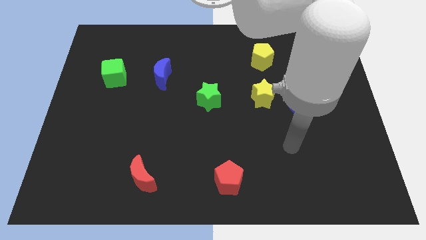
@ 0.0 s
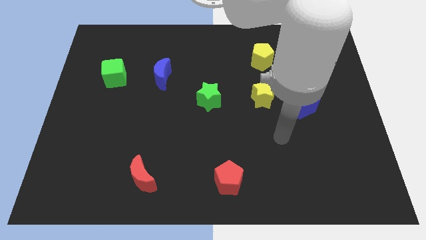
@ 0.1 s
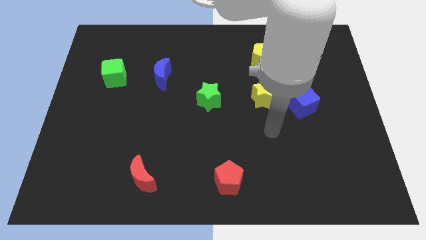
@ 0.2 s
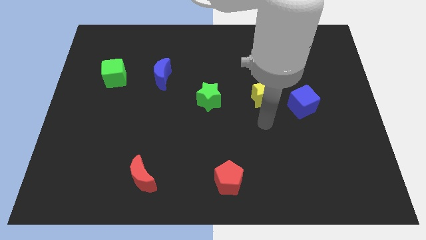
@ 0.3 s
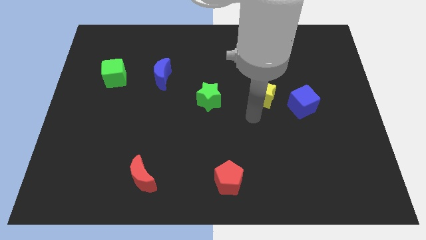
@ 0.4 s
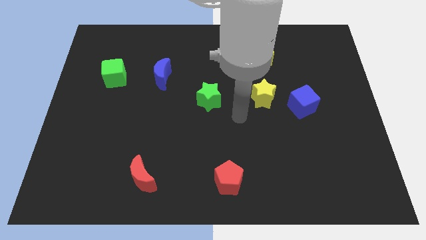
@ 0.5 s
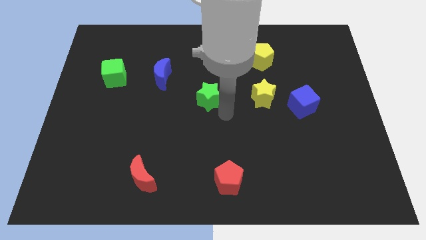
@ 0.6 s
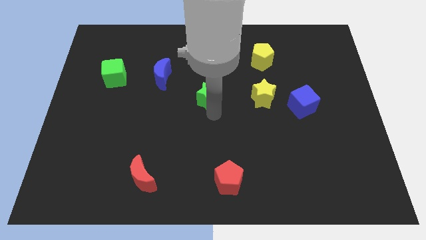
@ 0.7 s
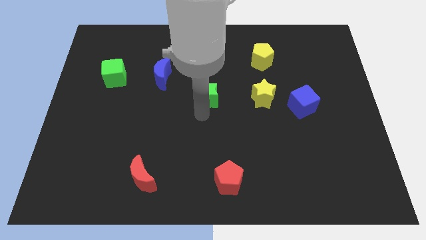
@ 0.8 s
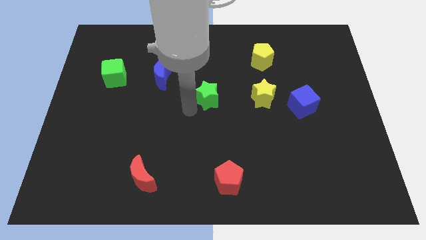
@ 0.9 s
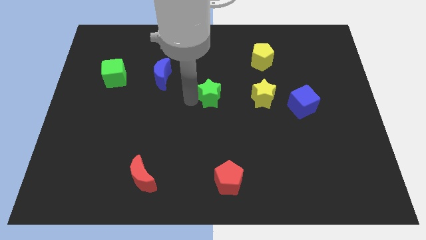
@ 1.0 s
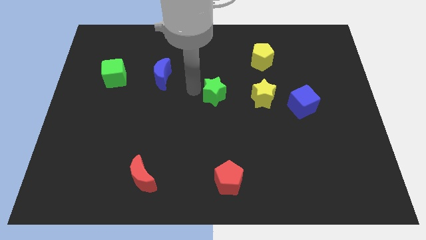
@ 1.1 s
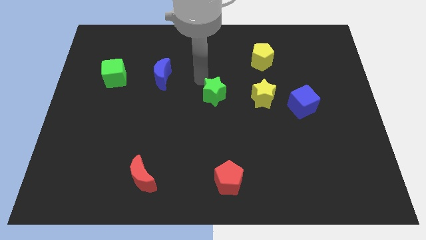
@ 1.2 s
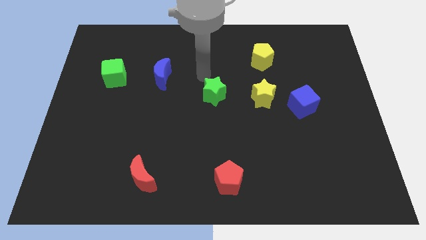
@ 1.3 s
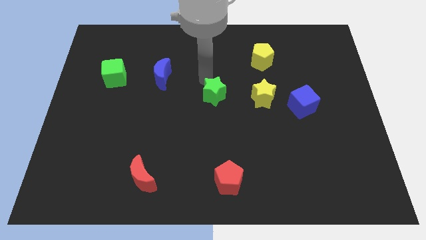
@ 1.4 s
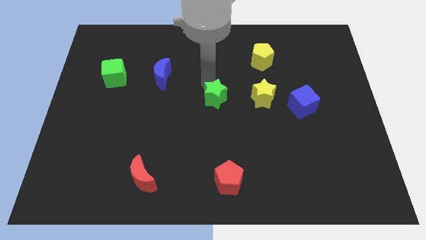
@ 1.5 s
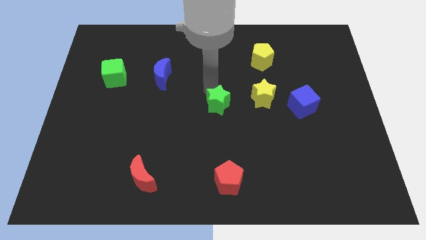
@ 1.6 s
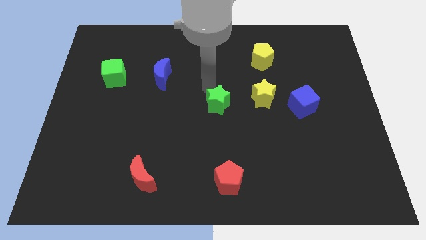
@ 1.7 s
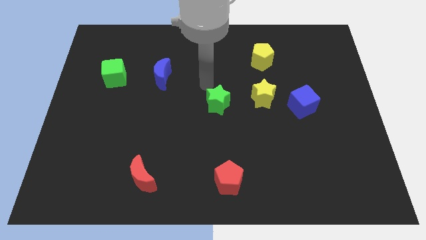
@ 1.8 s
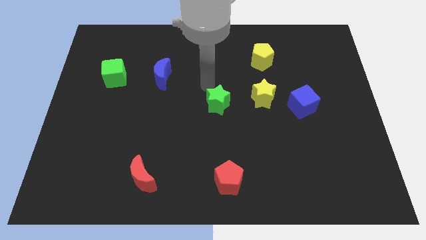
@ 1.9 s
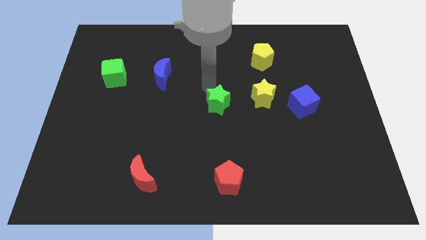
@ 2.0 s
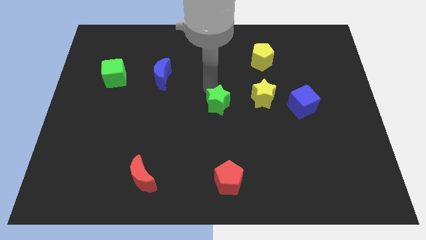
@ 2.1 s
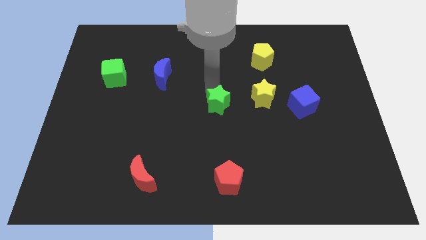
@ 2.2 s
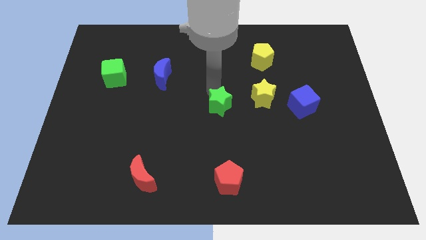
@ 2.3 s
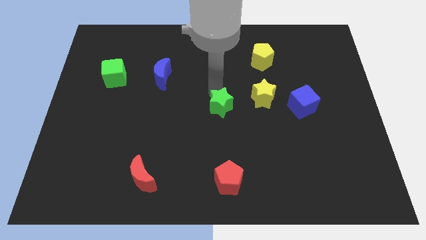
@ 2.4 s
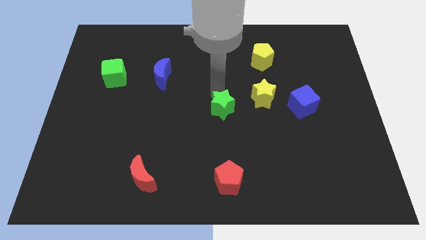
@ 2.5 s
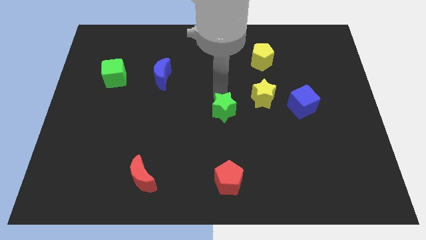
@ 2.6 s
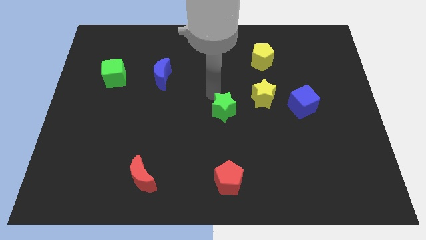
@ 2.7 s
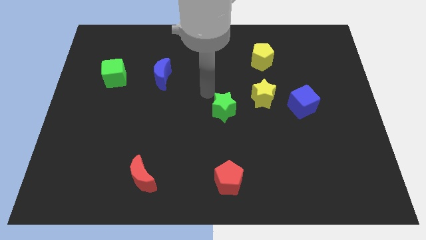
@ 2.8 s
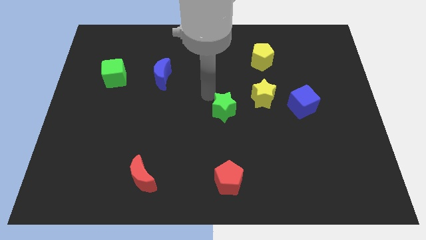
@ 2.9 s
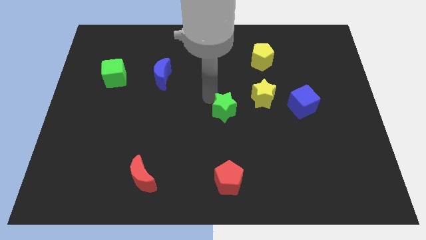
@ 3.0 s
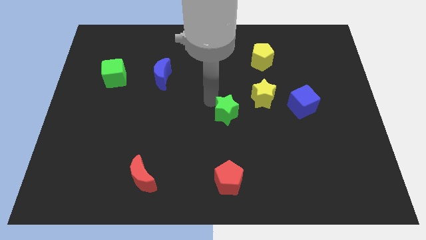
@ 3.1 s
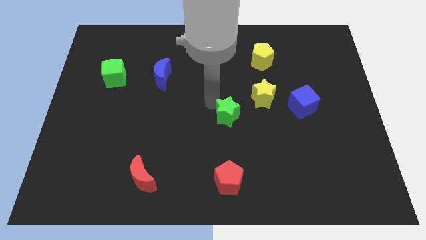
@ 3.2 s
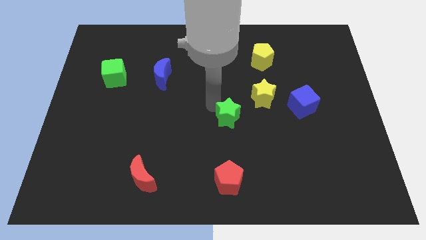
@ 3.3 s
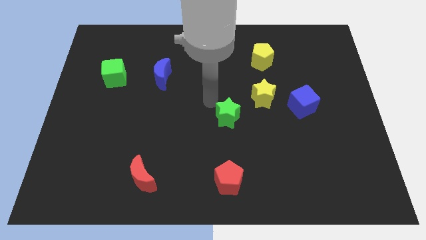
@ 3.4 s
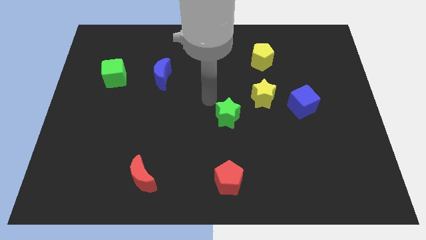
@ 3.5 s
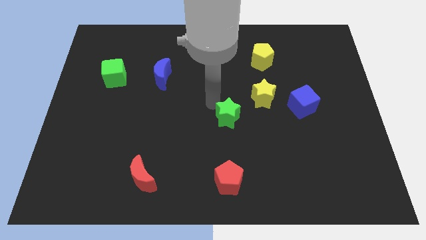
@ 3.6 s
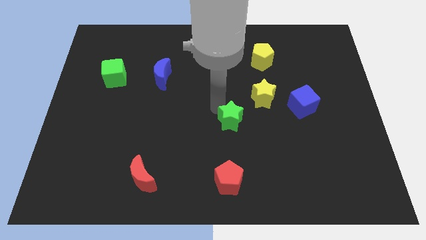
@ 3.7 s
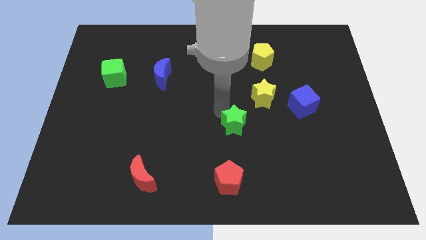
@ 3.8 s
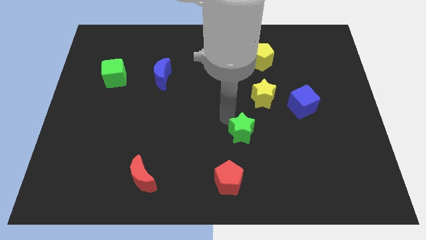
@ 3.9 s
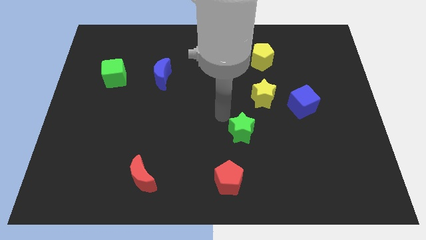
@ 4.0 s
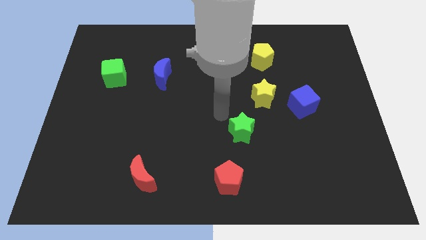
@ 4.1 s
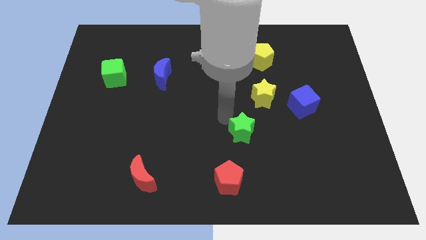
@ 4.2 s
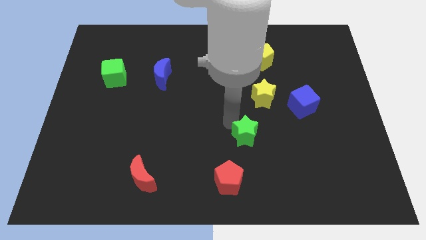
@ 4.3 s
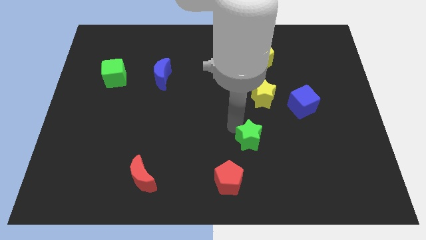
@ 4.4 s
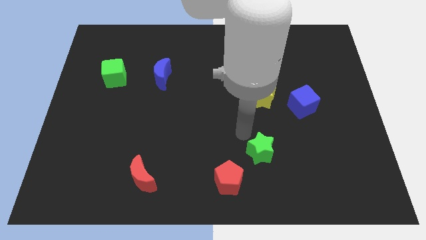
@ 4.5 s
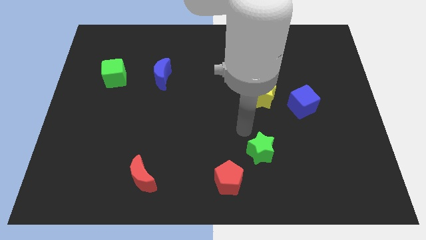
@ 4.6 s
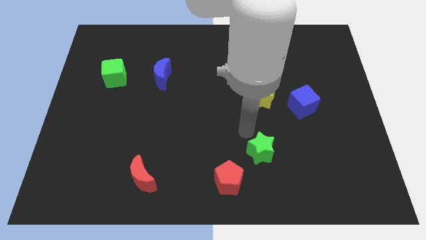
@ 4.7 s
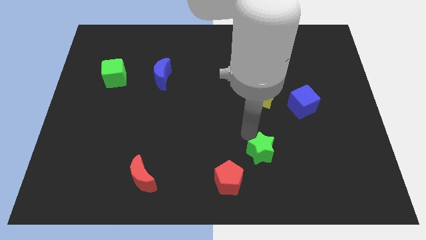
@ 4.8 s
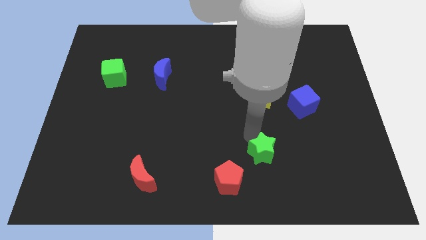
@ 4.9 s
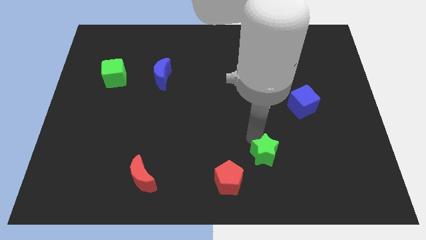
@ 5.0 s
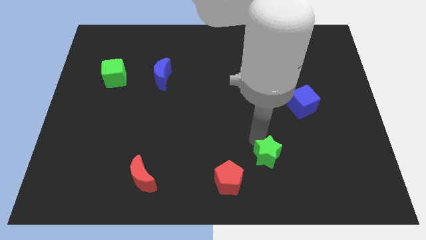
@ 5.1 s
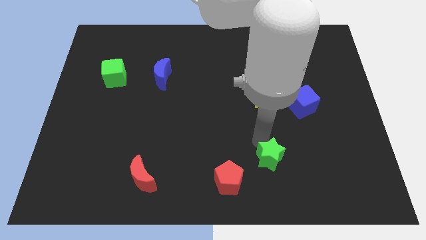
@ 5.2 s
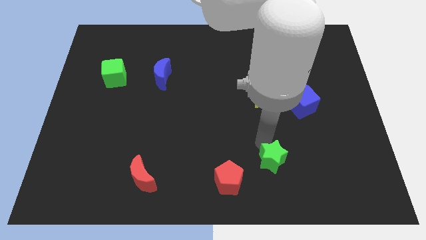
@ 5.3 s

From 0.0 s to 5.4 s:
slide the green star just right of the red pentagon

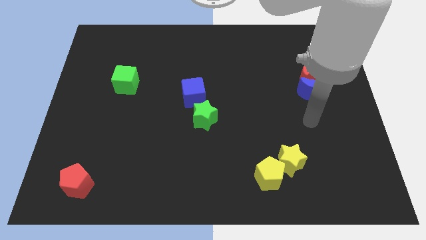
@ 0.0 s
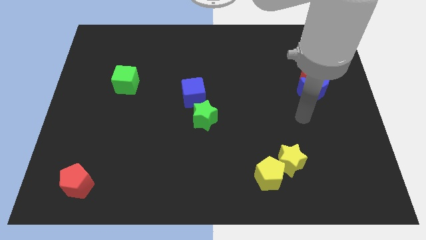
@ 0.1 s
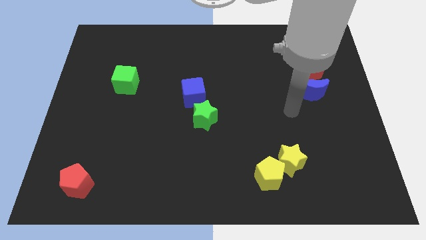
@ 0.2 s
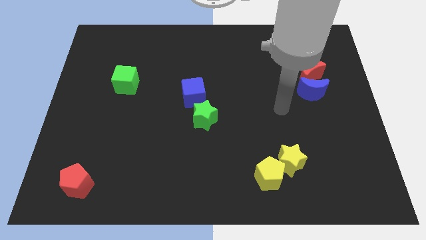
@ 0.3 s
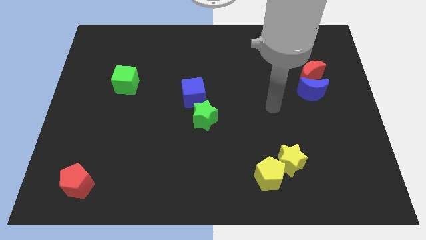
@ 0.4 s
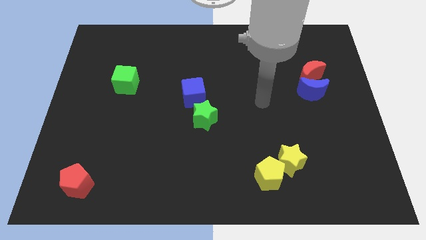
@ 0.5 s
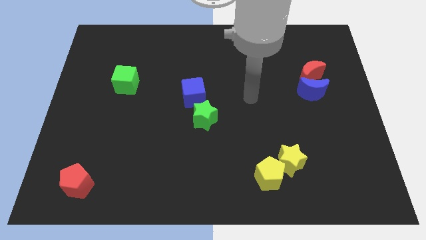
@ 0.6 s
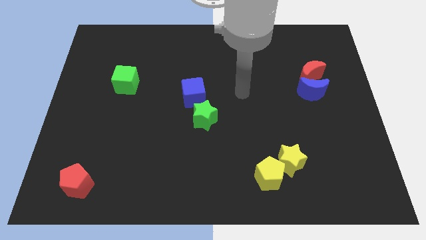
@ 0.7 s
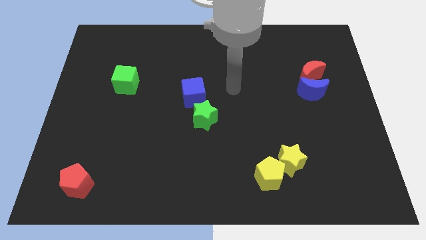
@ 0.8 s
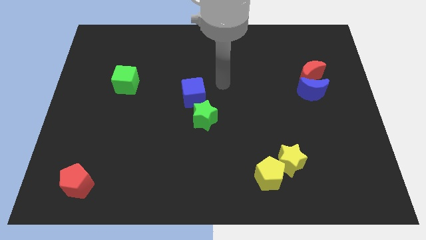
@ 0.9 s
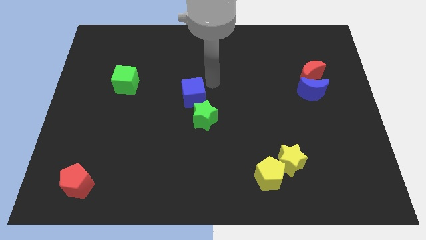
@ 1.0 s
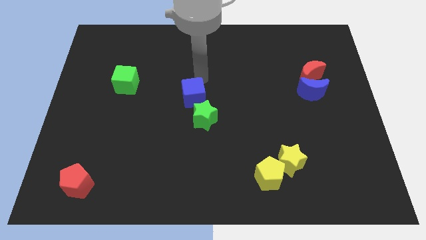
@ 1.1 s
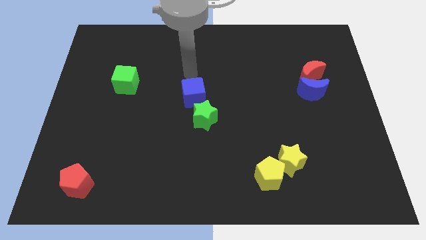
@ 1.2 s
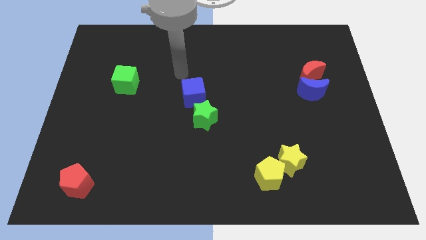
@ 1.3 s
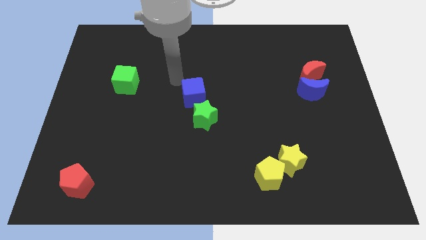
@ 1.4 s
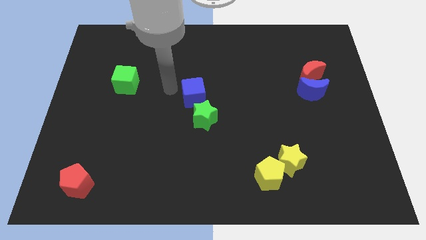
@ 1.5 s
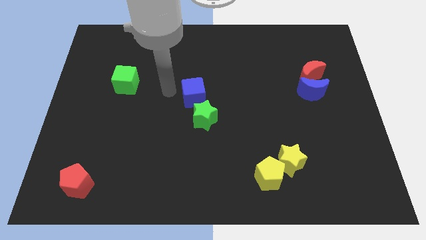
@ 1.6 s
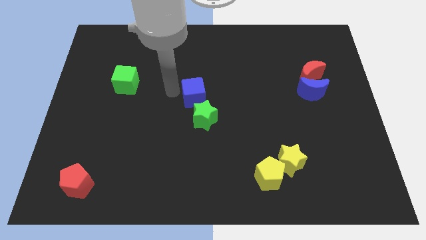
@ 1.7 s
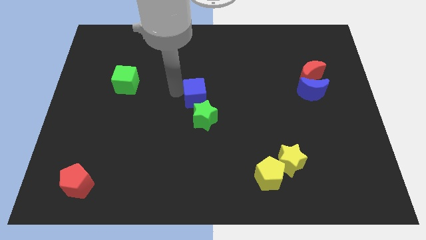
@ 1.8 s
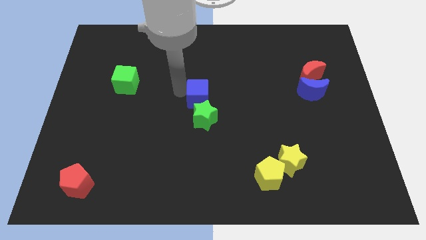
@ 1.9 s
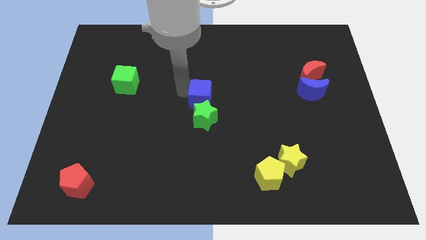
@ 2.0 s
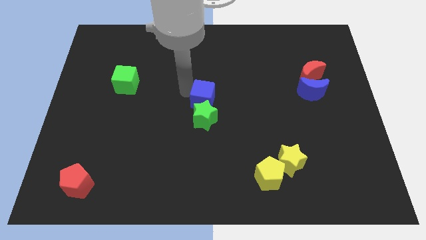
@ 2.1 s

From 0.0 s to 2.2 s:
slide the blue cube to the top right of the green star

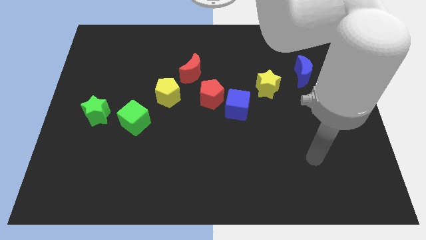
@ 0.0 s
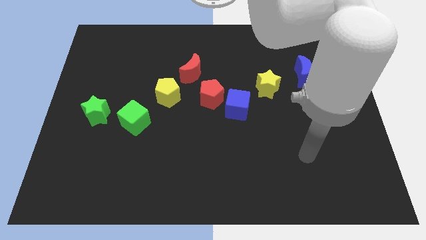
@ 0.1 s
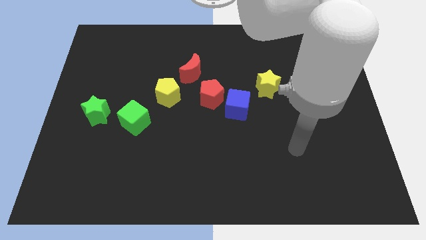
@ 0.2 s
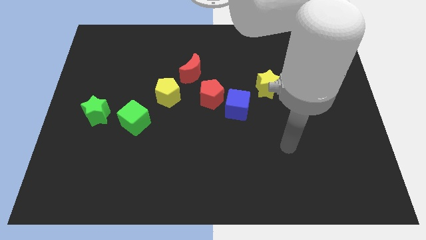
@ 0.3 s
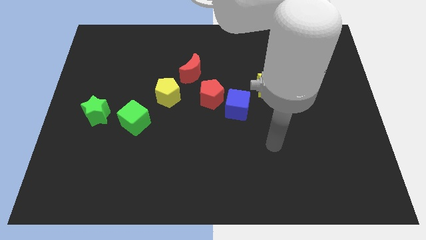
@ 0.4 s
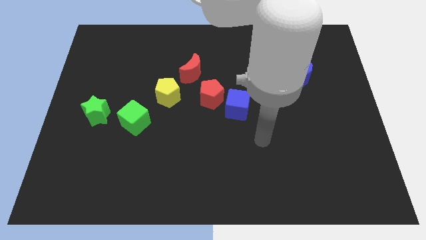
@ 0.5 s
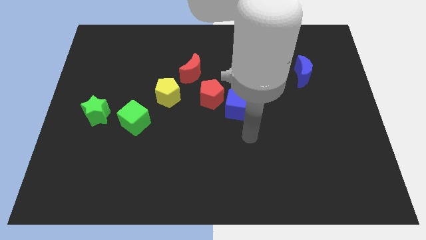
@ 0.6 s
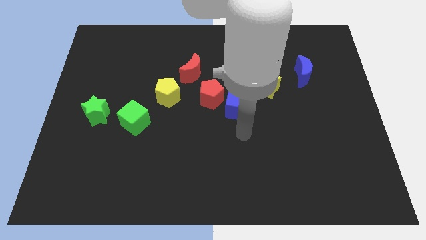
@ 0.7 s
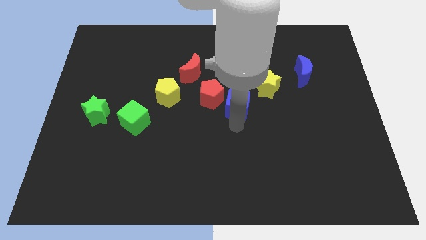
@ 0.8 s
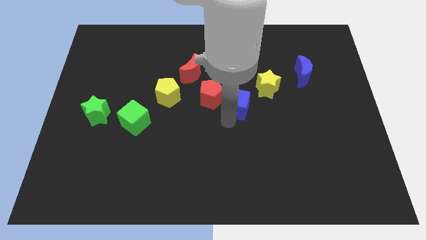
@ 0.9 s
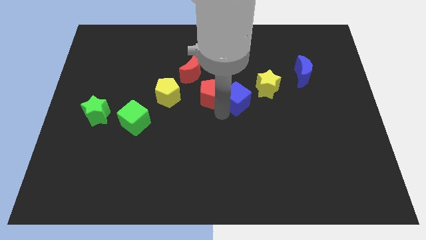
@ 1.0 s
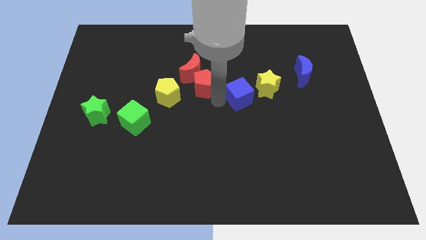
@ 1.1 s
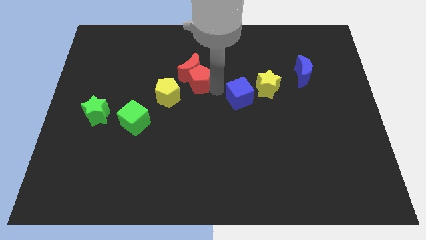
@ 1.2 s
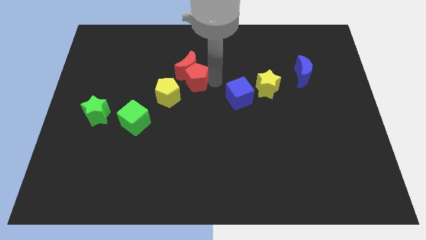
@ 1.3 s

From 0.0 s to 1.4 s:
move the red moon to the top of the yellow pentagon
